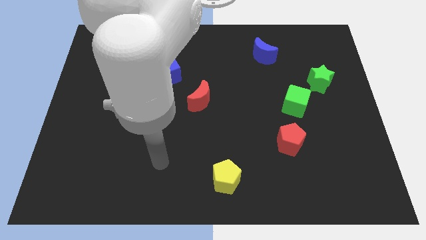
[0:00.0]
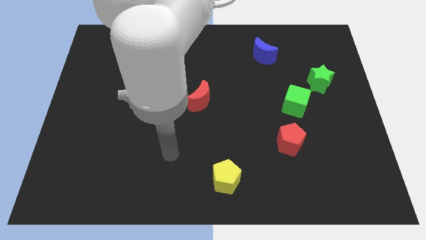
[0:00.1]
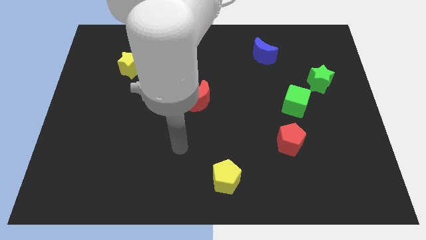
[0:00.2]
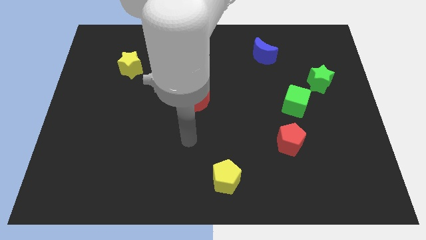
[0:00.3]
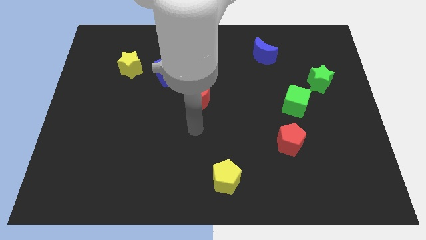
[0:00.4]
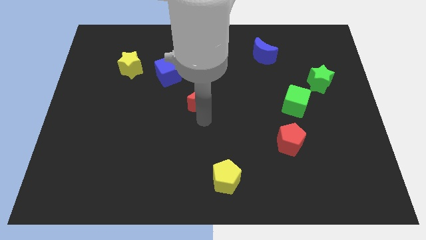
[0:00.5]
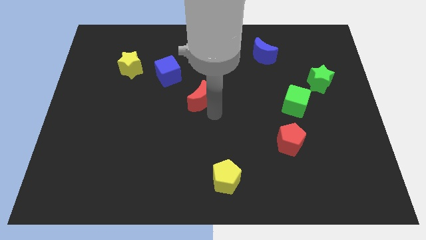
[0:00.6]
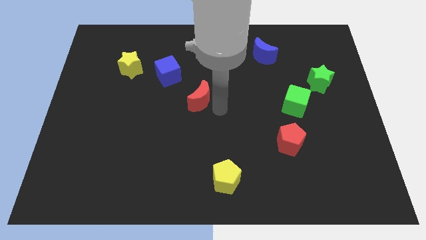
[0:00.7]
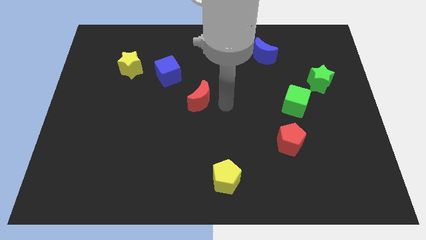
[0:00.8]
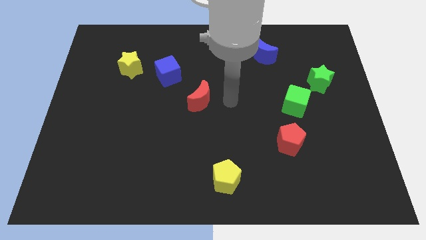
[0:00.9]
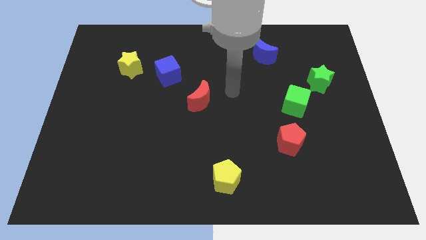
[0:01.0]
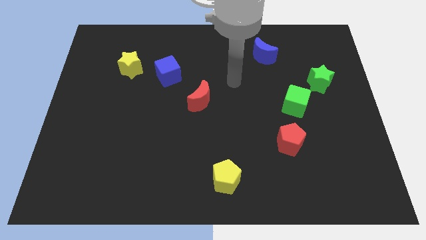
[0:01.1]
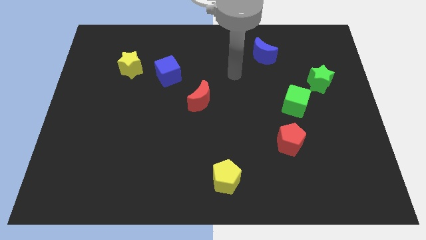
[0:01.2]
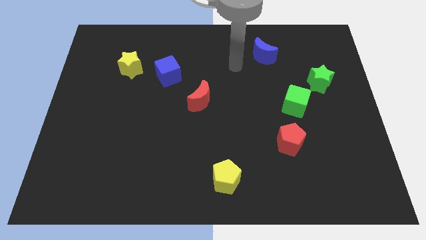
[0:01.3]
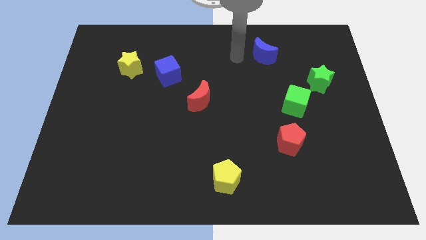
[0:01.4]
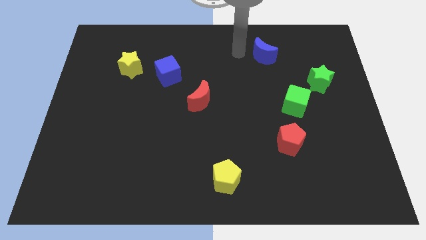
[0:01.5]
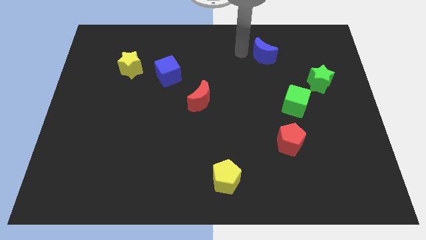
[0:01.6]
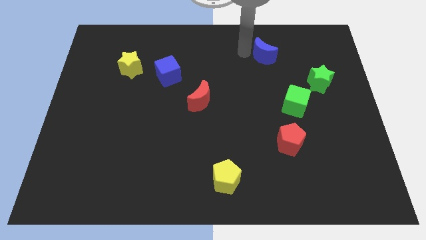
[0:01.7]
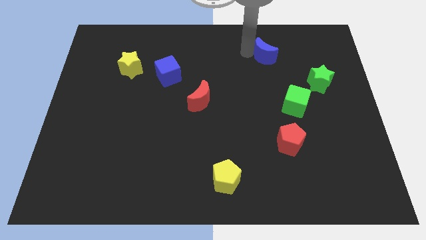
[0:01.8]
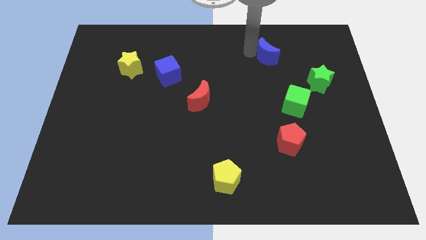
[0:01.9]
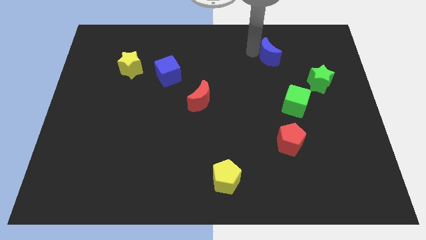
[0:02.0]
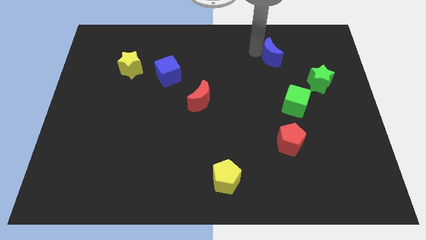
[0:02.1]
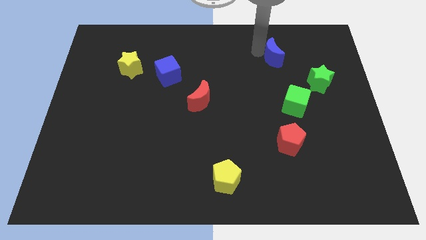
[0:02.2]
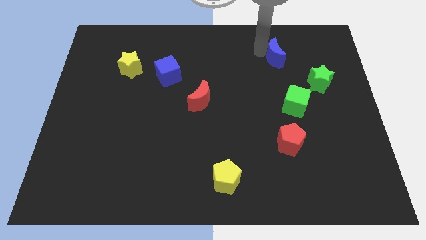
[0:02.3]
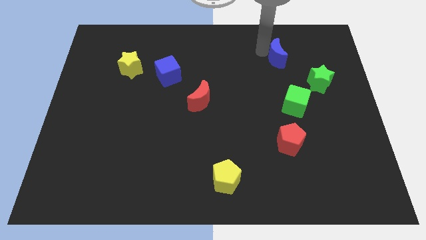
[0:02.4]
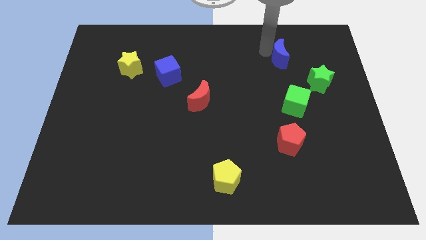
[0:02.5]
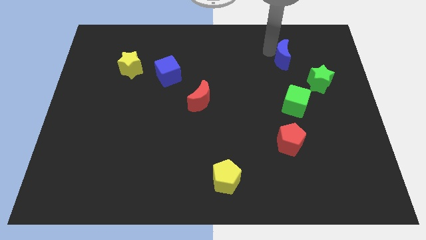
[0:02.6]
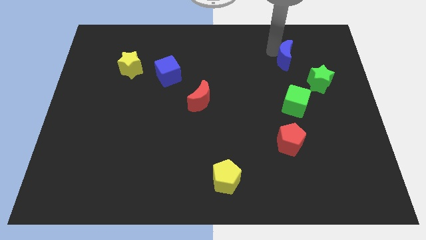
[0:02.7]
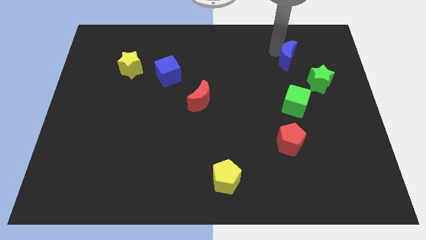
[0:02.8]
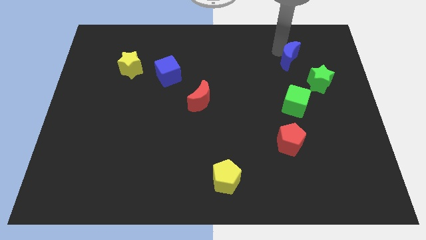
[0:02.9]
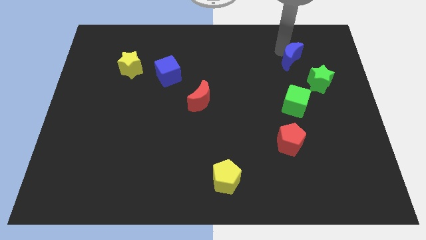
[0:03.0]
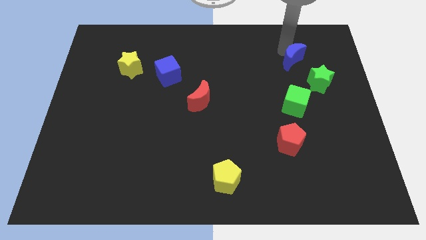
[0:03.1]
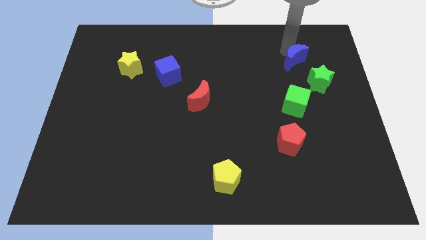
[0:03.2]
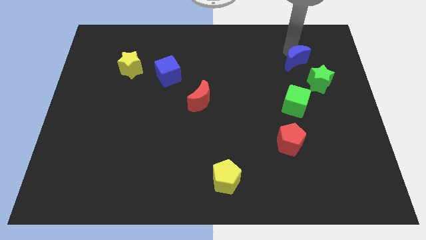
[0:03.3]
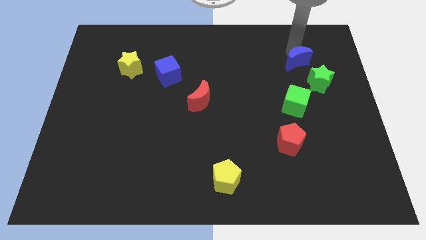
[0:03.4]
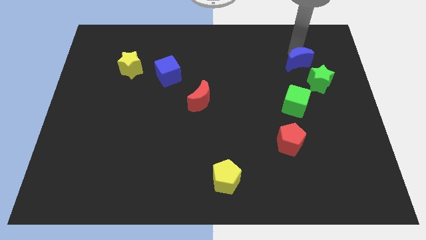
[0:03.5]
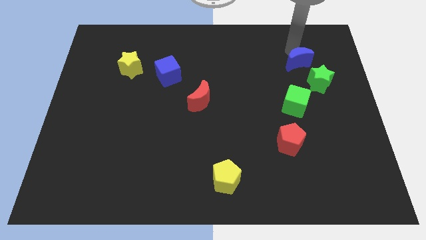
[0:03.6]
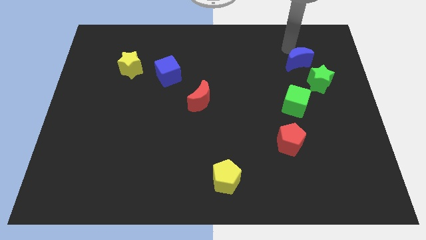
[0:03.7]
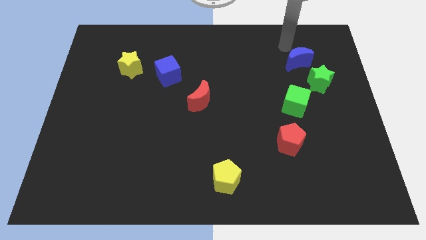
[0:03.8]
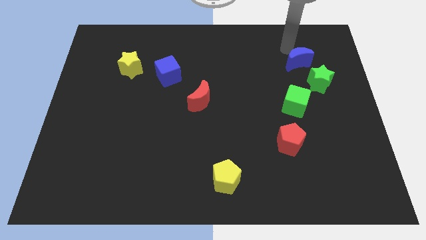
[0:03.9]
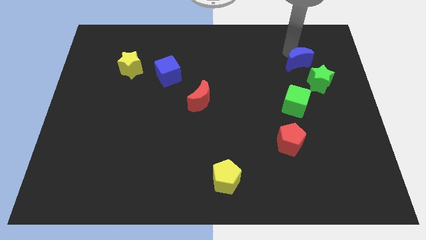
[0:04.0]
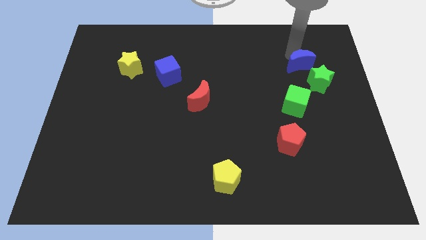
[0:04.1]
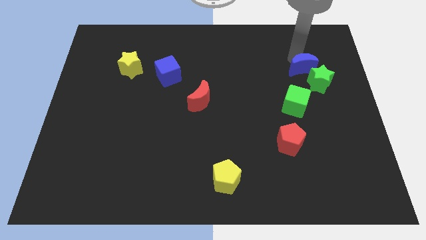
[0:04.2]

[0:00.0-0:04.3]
slide the blue moon close to the green star

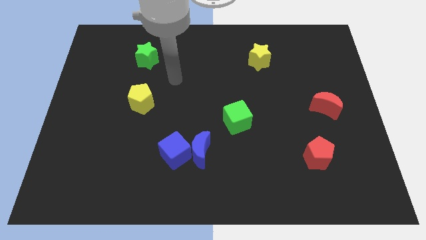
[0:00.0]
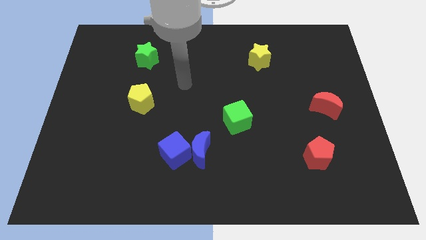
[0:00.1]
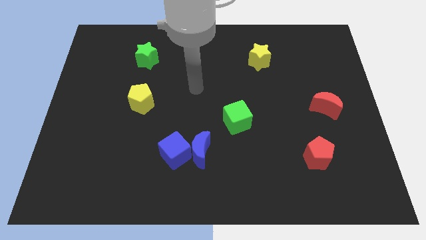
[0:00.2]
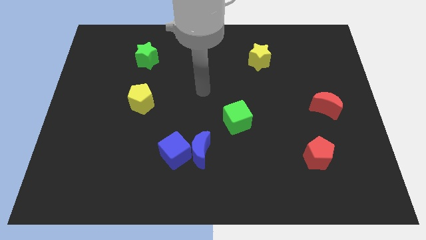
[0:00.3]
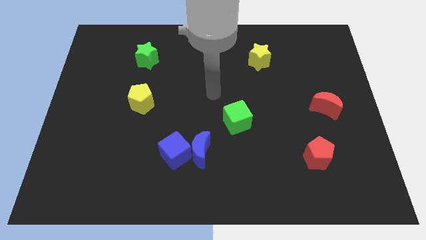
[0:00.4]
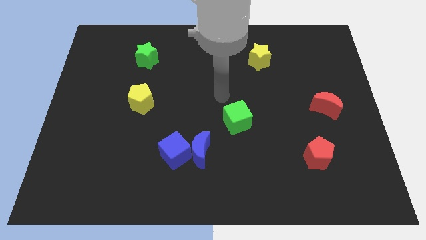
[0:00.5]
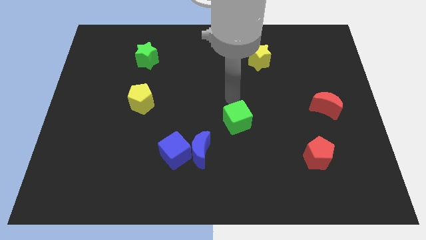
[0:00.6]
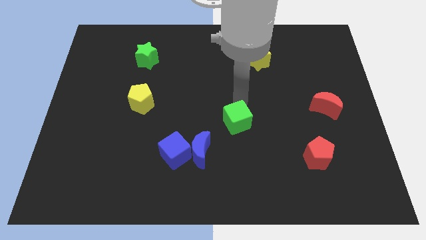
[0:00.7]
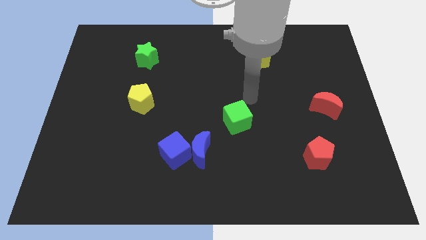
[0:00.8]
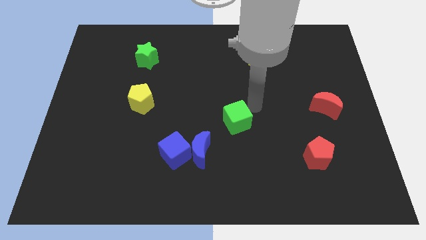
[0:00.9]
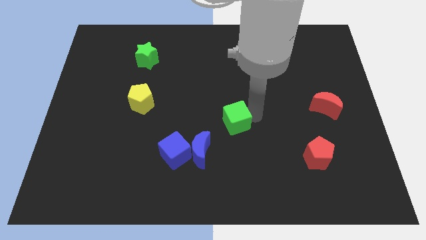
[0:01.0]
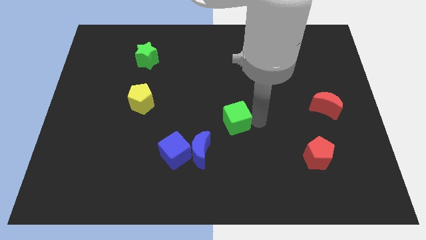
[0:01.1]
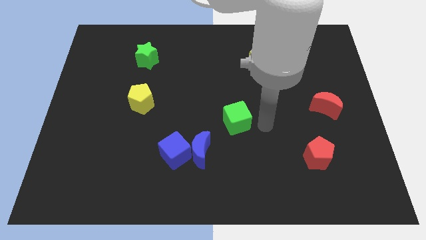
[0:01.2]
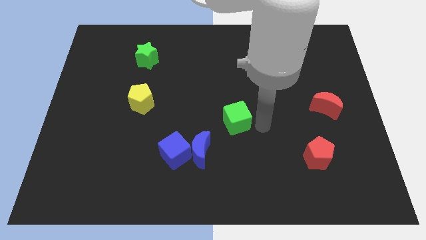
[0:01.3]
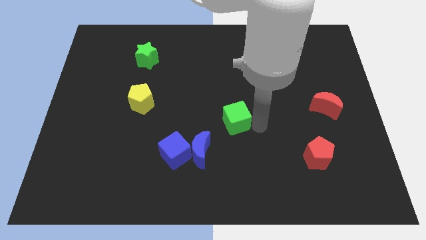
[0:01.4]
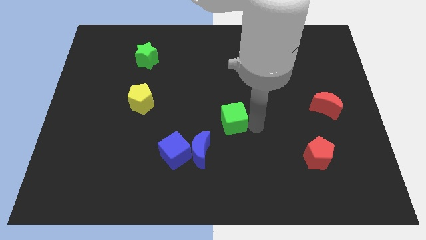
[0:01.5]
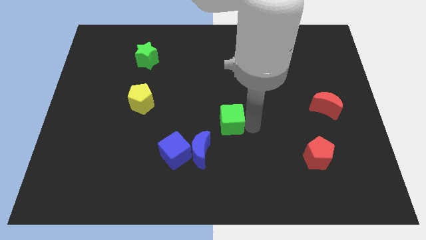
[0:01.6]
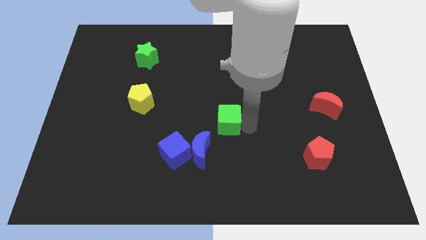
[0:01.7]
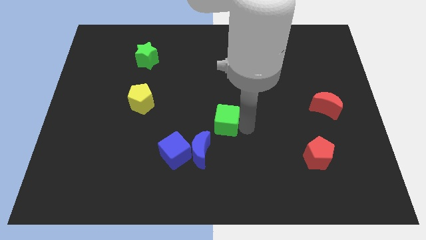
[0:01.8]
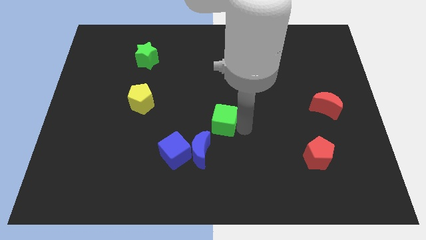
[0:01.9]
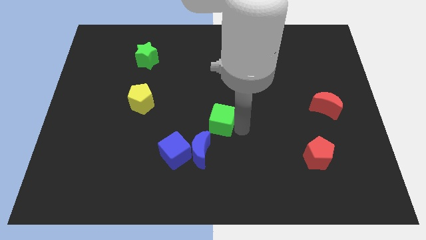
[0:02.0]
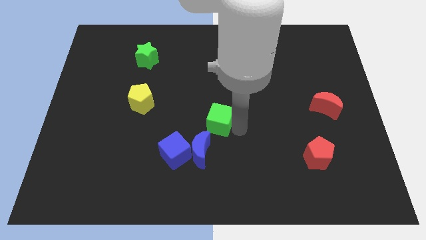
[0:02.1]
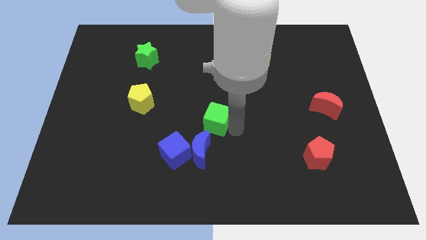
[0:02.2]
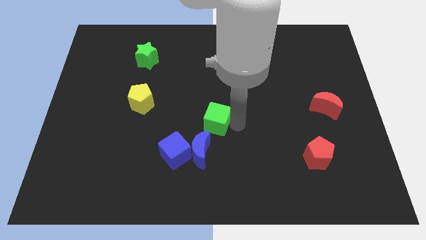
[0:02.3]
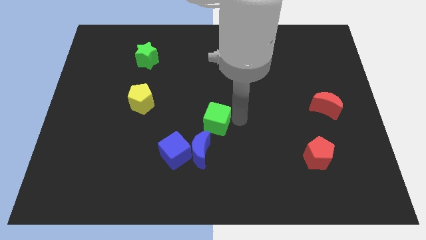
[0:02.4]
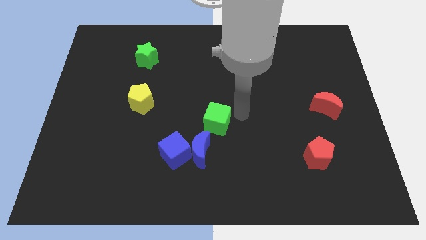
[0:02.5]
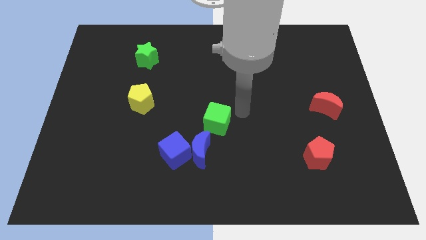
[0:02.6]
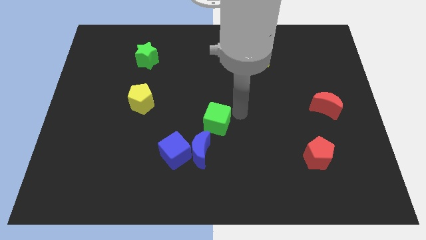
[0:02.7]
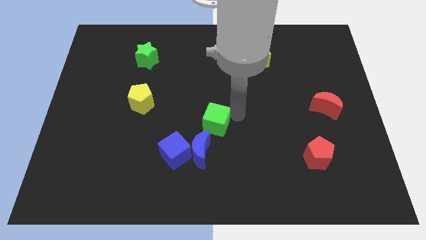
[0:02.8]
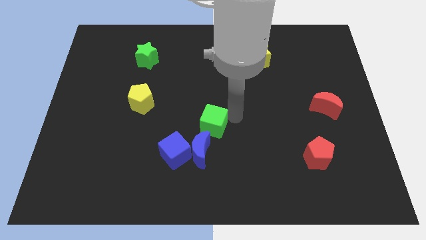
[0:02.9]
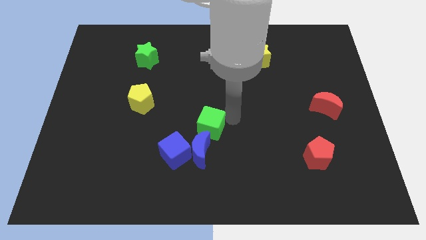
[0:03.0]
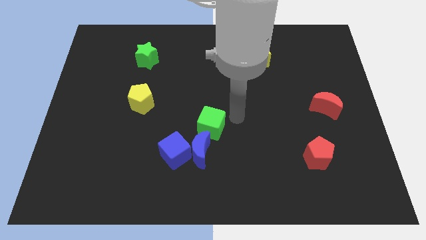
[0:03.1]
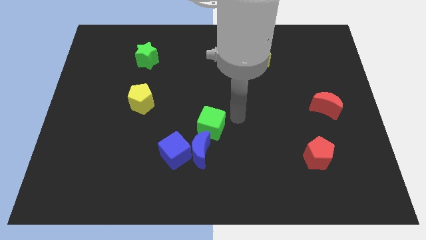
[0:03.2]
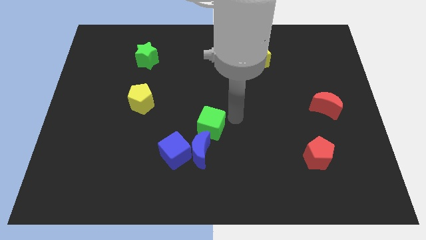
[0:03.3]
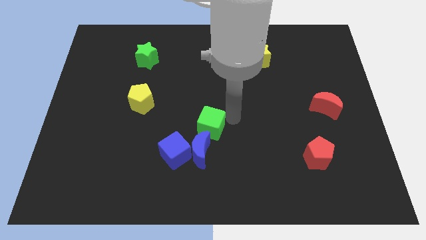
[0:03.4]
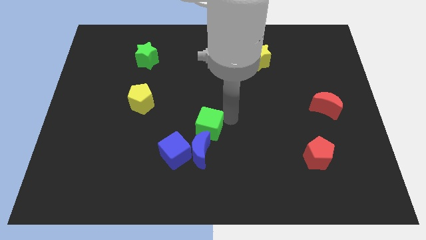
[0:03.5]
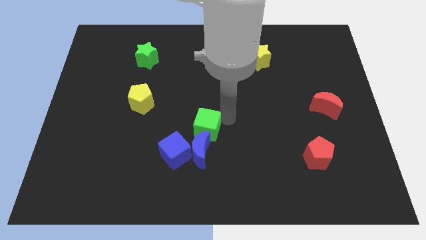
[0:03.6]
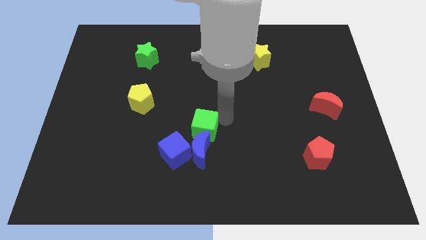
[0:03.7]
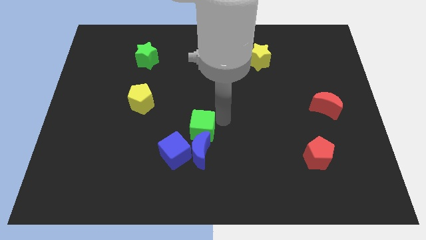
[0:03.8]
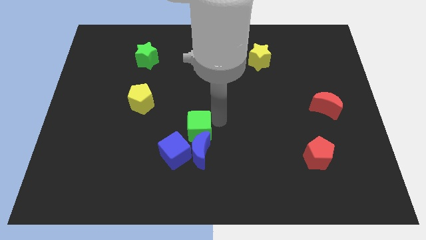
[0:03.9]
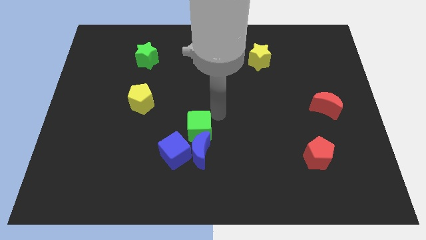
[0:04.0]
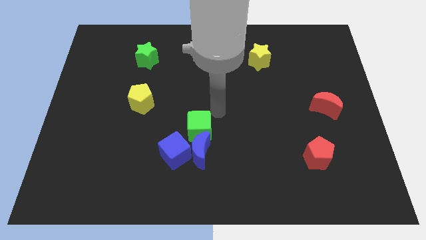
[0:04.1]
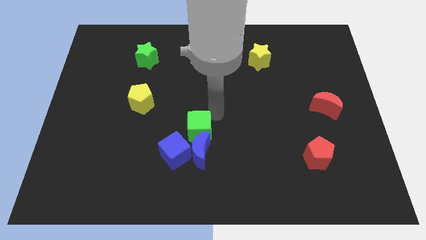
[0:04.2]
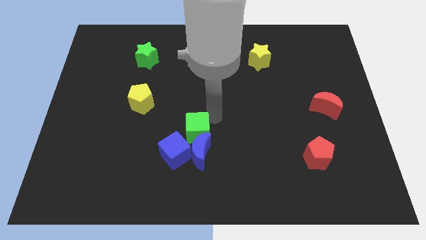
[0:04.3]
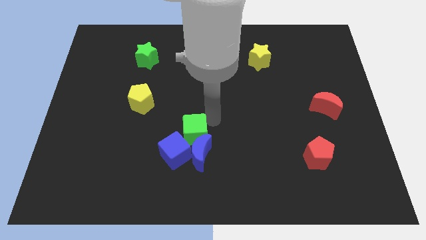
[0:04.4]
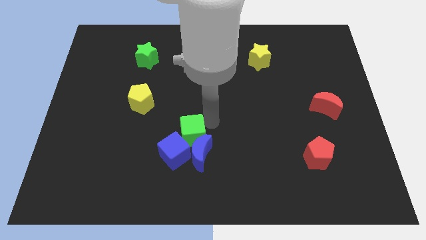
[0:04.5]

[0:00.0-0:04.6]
put the green cube to the blue cube
